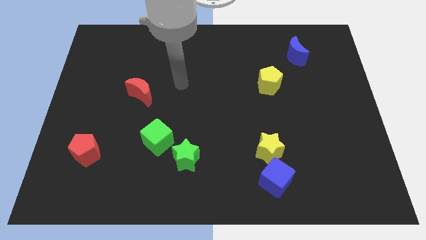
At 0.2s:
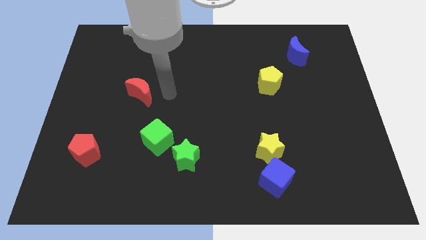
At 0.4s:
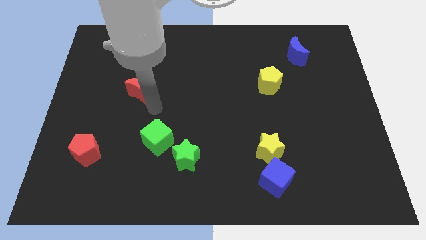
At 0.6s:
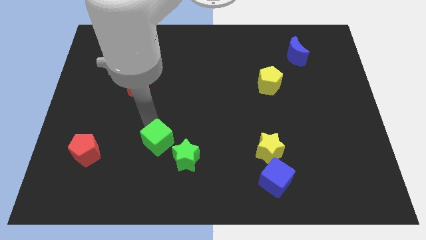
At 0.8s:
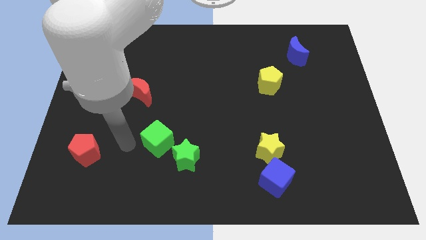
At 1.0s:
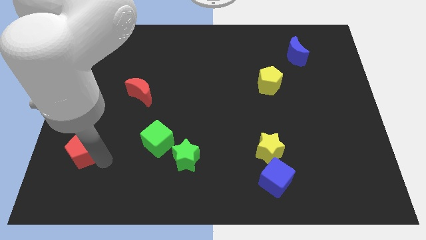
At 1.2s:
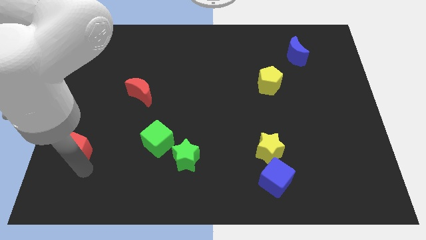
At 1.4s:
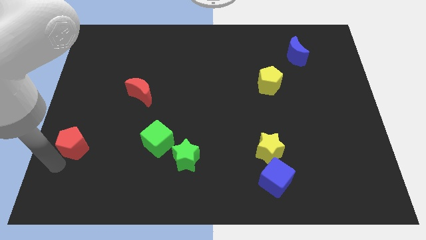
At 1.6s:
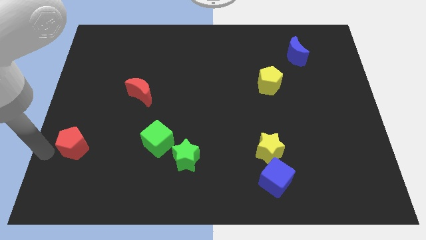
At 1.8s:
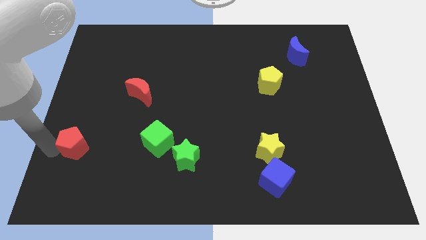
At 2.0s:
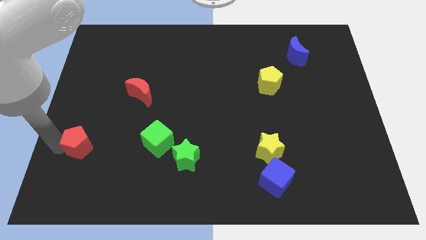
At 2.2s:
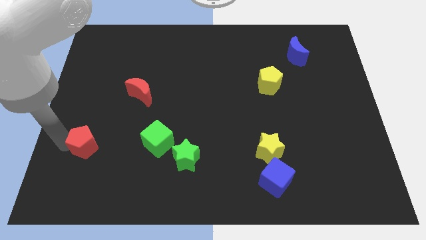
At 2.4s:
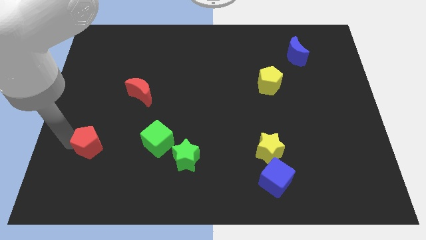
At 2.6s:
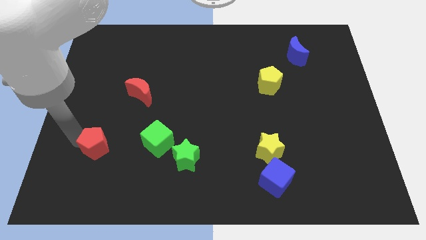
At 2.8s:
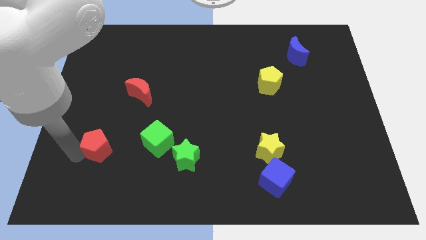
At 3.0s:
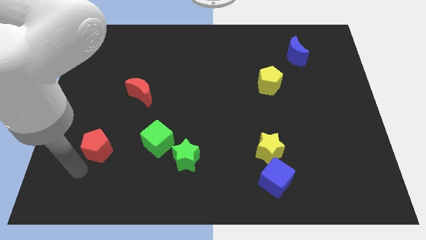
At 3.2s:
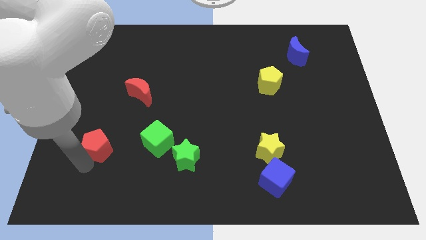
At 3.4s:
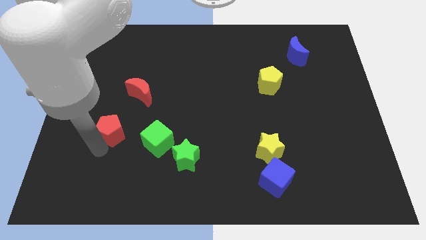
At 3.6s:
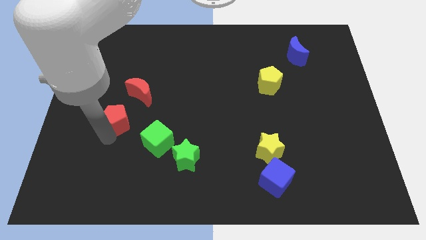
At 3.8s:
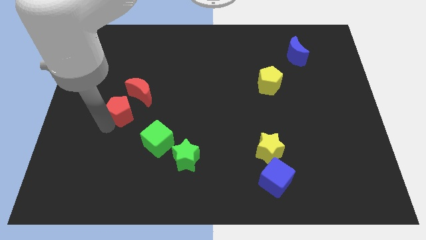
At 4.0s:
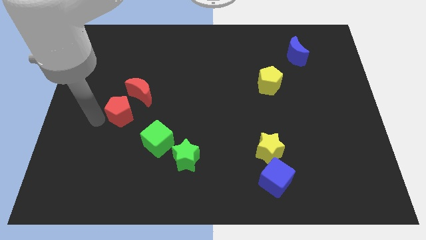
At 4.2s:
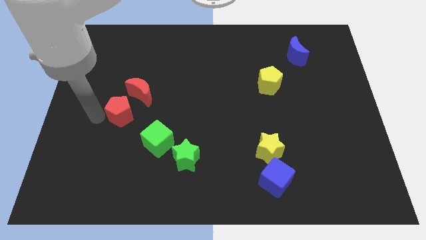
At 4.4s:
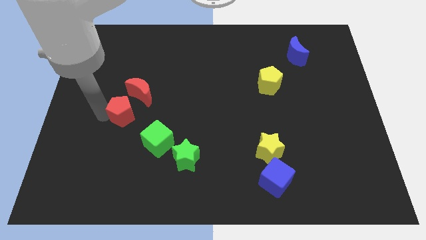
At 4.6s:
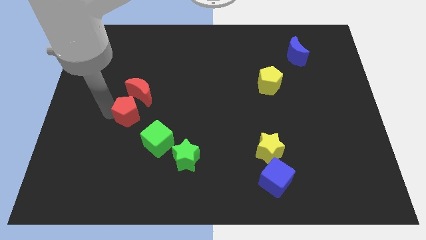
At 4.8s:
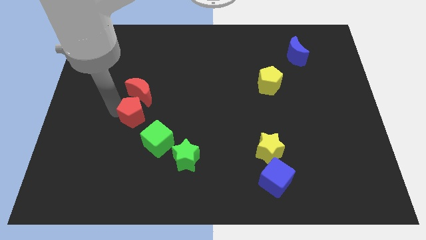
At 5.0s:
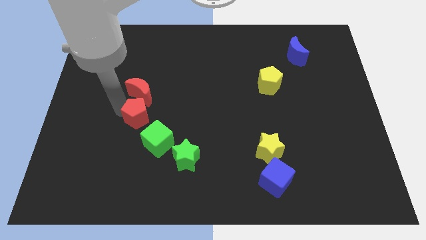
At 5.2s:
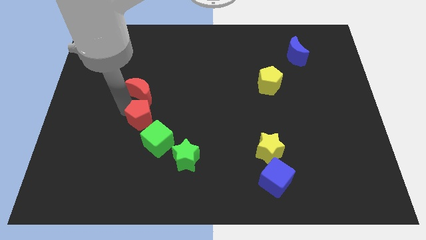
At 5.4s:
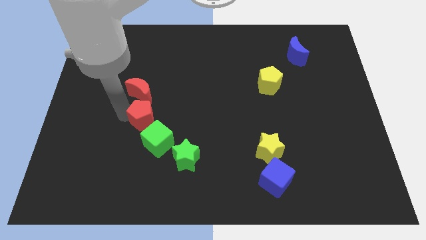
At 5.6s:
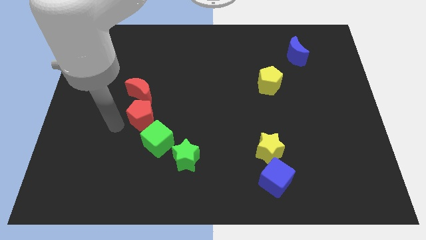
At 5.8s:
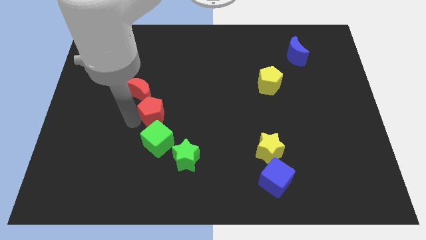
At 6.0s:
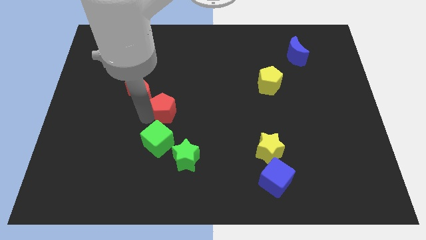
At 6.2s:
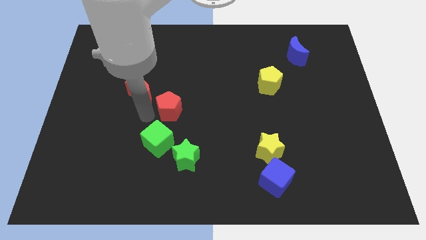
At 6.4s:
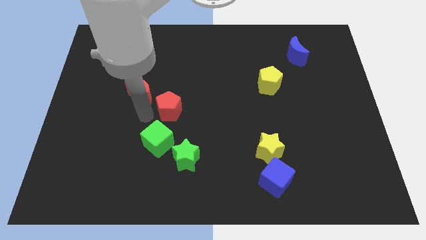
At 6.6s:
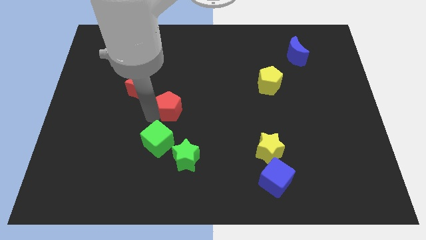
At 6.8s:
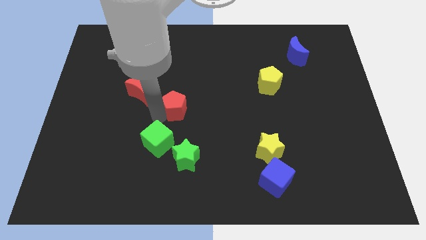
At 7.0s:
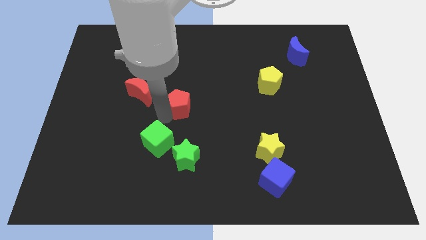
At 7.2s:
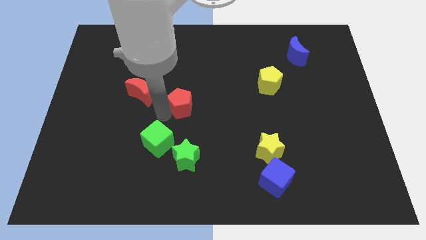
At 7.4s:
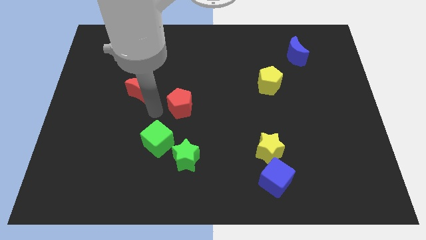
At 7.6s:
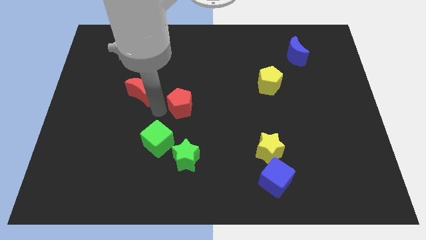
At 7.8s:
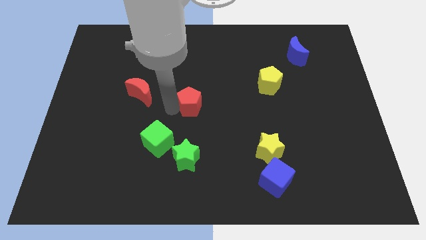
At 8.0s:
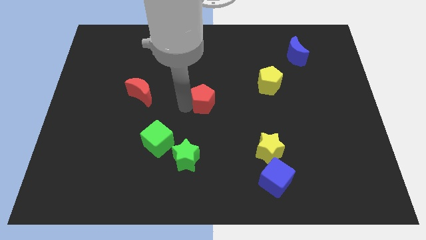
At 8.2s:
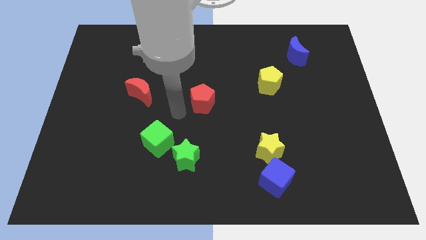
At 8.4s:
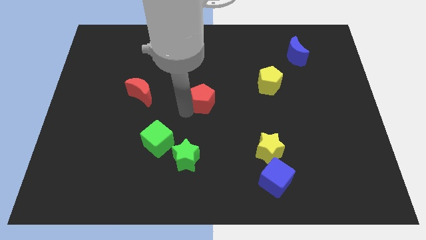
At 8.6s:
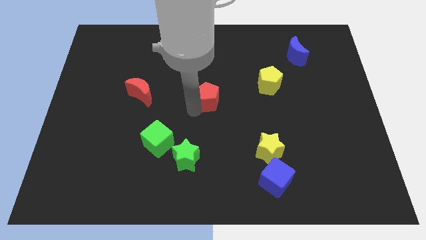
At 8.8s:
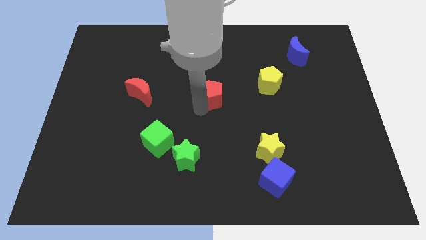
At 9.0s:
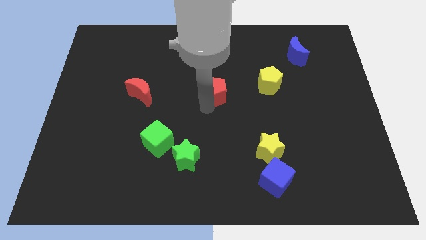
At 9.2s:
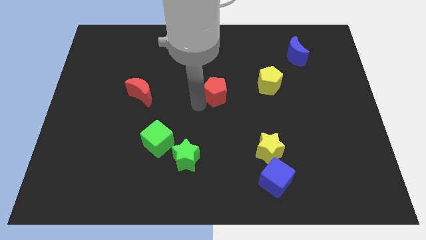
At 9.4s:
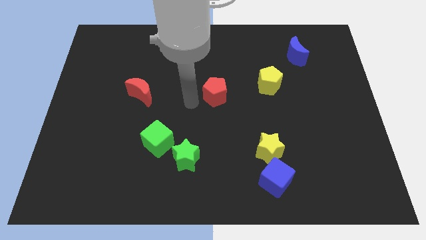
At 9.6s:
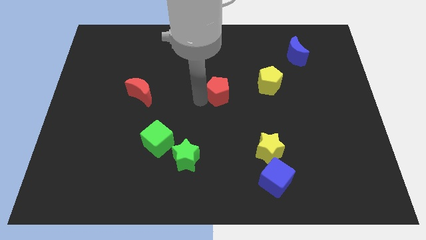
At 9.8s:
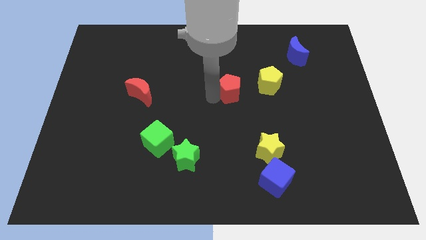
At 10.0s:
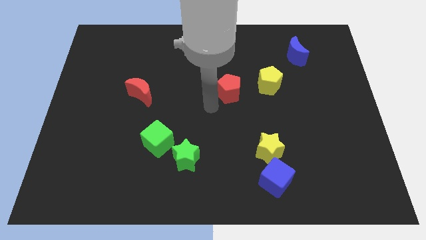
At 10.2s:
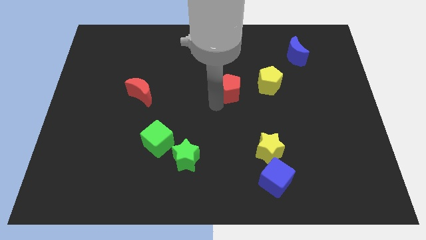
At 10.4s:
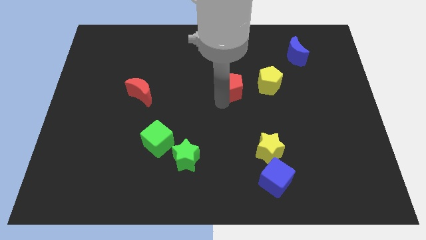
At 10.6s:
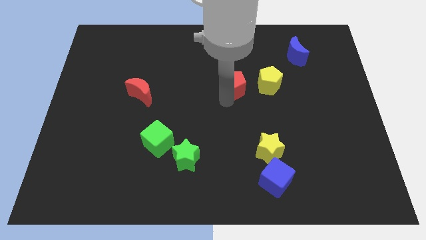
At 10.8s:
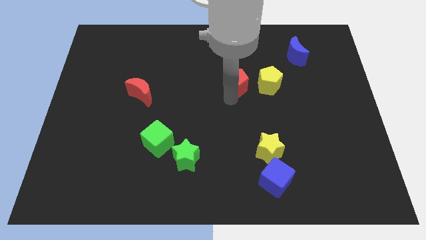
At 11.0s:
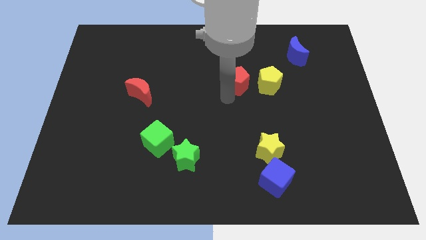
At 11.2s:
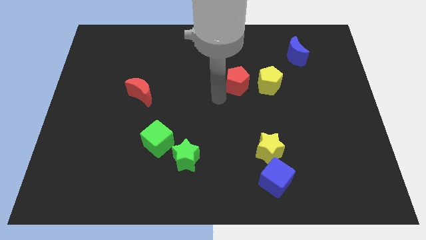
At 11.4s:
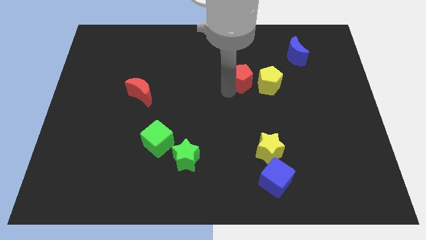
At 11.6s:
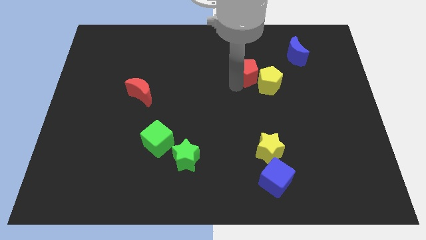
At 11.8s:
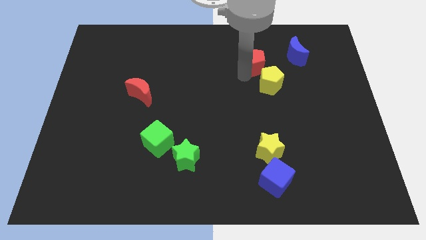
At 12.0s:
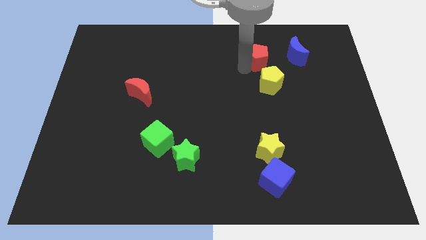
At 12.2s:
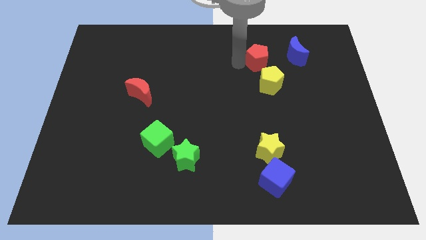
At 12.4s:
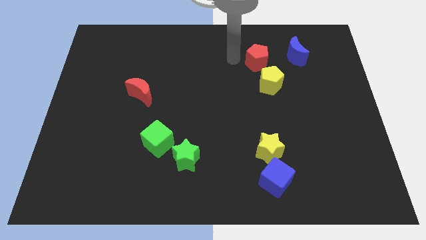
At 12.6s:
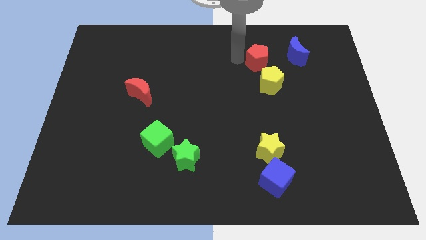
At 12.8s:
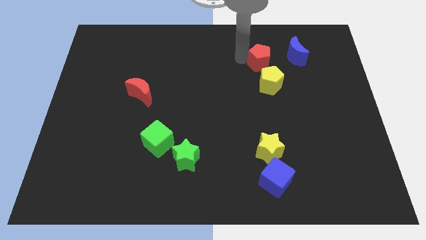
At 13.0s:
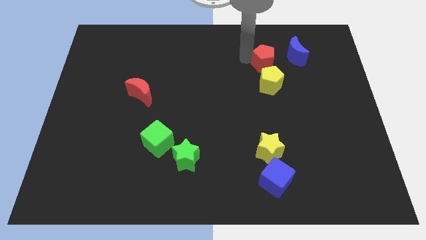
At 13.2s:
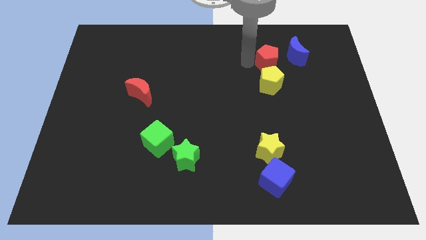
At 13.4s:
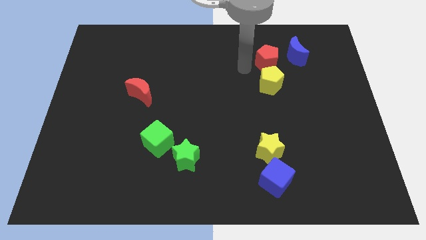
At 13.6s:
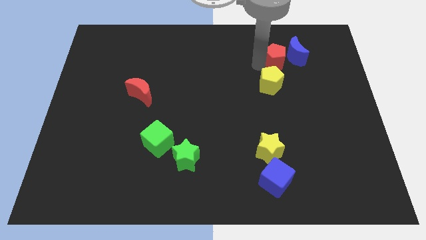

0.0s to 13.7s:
push the red pentagon next to the blue moon

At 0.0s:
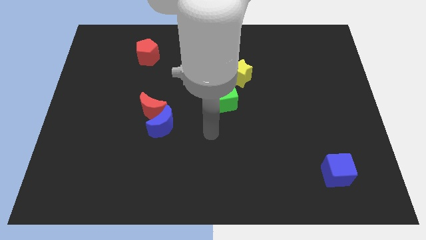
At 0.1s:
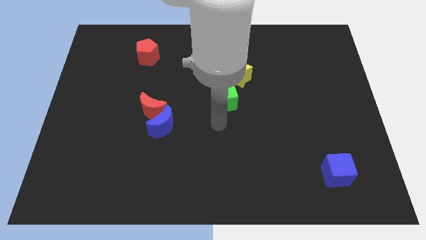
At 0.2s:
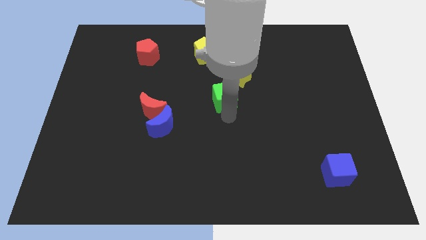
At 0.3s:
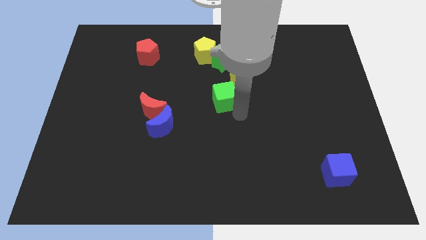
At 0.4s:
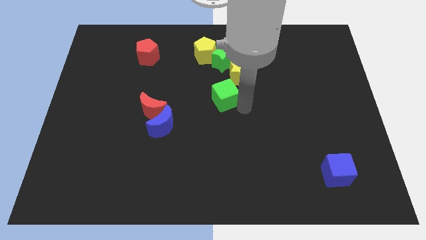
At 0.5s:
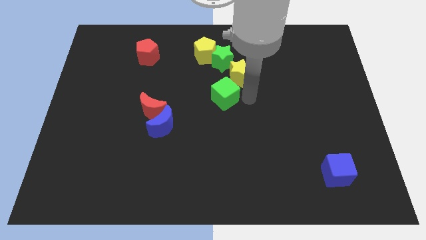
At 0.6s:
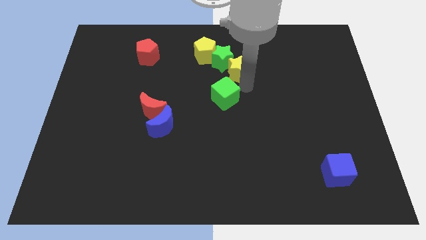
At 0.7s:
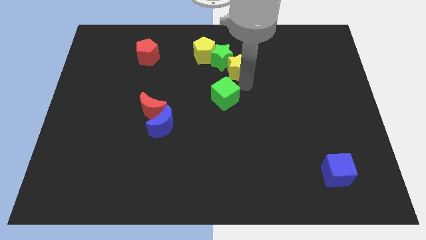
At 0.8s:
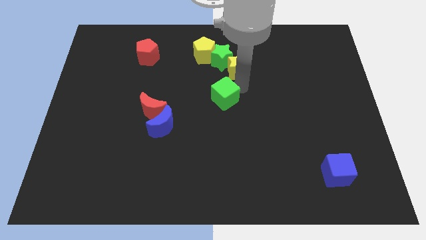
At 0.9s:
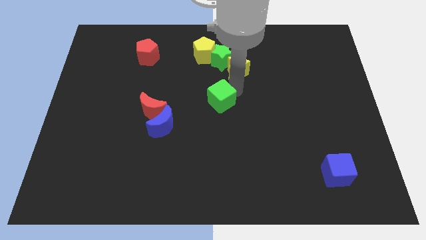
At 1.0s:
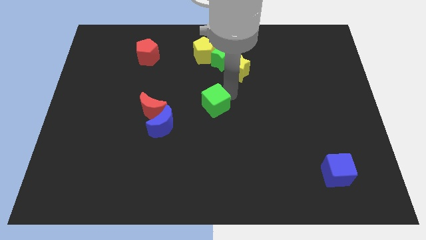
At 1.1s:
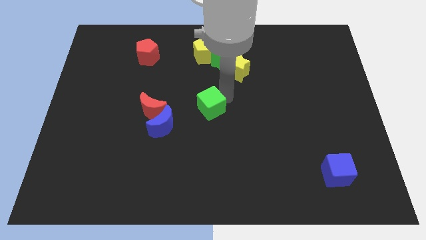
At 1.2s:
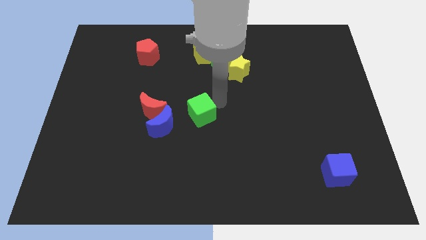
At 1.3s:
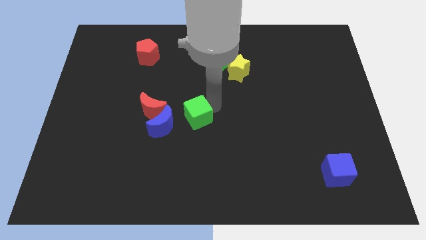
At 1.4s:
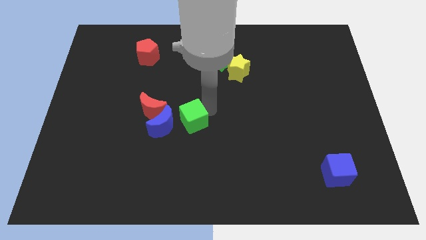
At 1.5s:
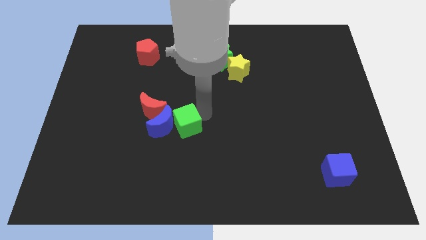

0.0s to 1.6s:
slide the green cube next to the blue moon
